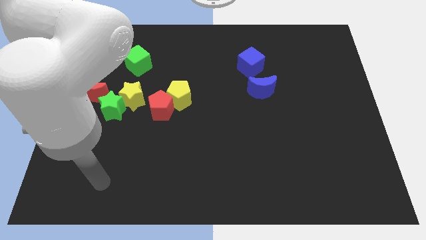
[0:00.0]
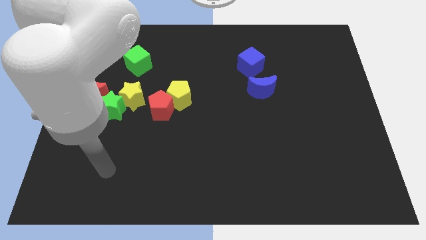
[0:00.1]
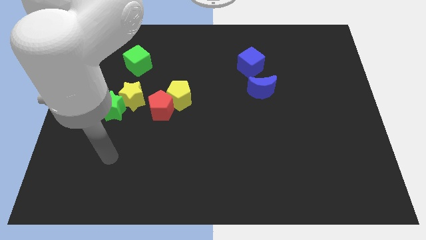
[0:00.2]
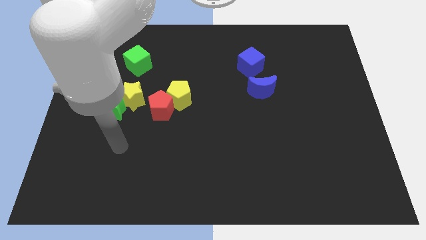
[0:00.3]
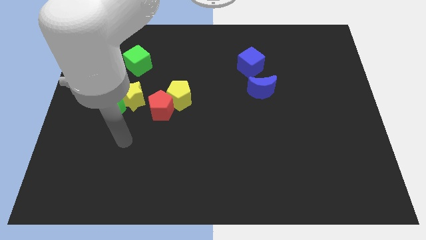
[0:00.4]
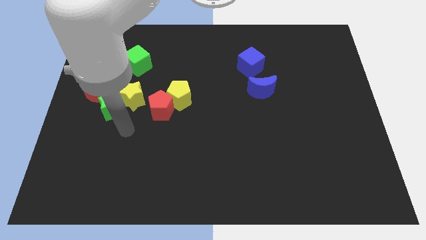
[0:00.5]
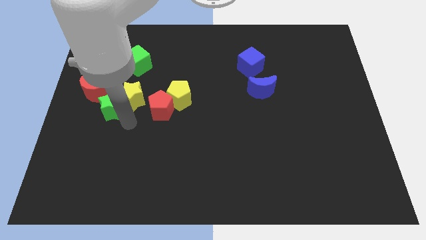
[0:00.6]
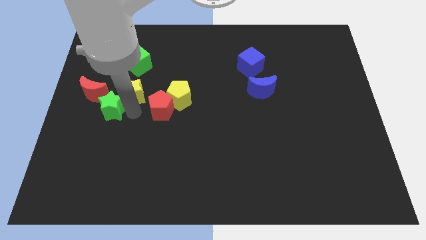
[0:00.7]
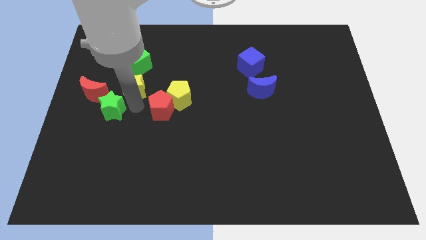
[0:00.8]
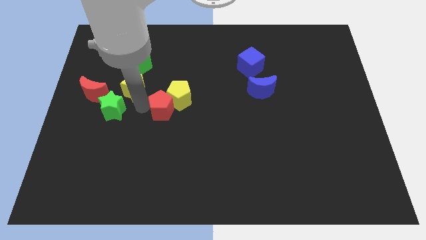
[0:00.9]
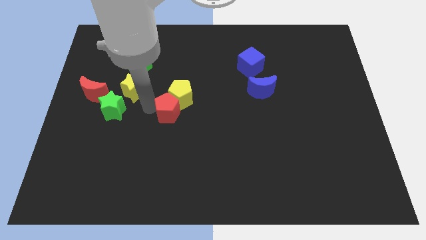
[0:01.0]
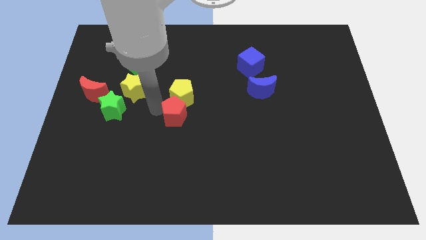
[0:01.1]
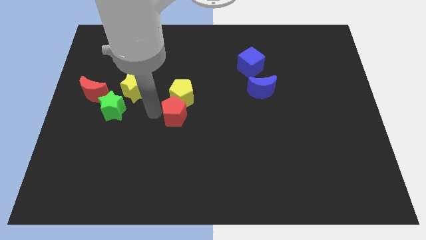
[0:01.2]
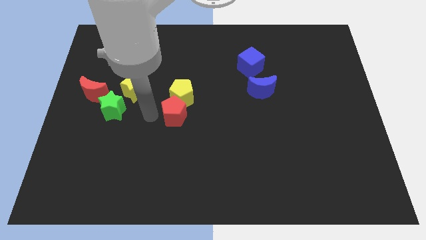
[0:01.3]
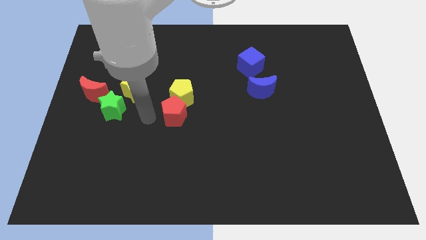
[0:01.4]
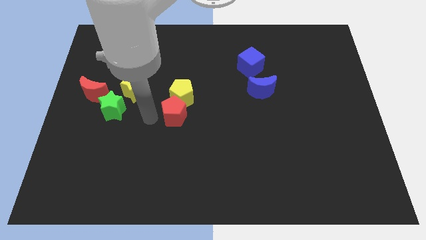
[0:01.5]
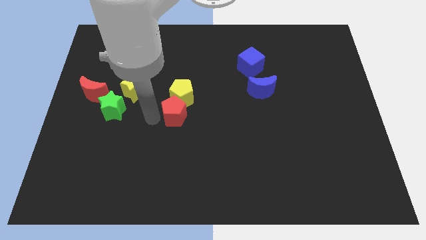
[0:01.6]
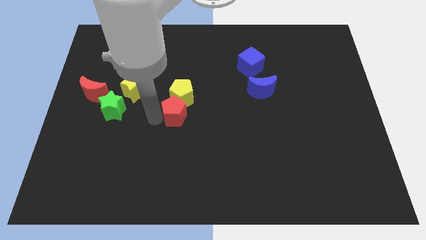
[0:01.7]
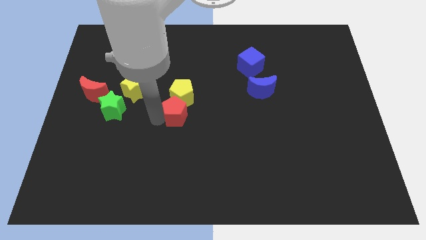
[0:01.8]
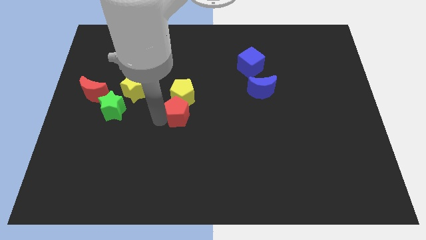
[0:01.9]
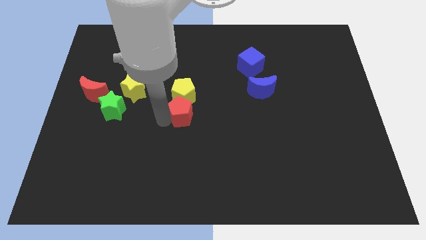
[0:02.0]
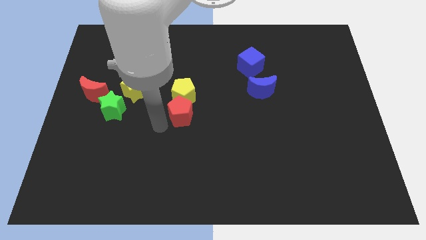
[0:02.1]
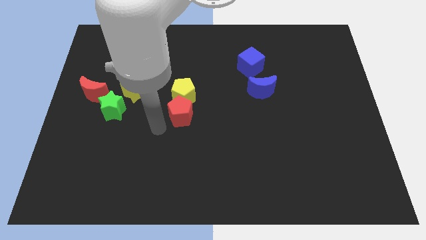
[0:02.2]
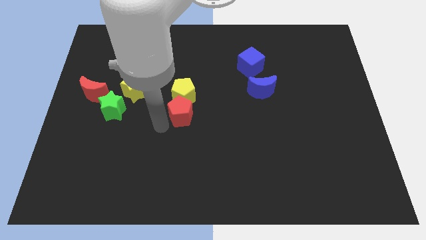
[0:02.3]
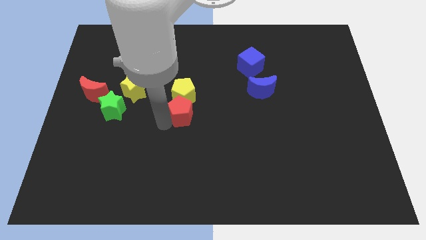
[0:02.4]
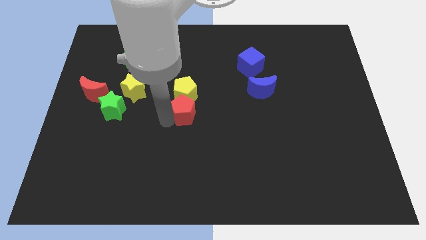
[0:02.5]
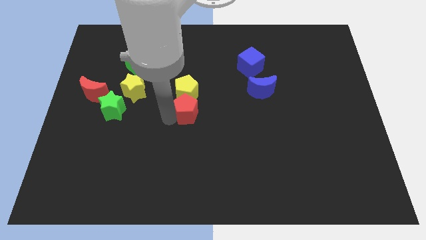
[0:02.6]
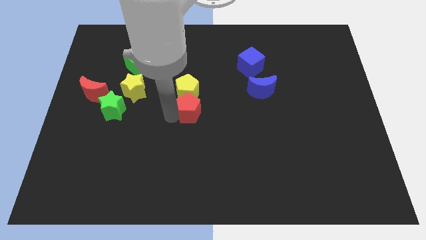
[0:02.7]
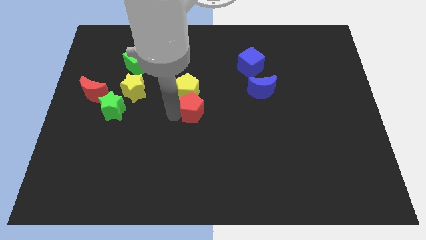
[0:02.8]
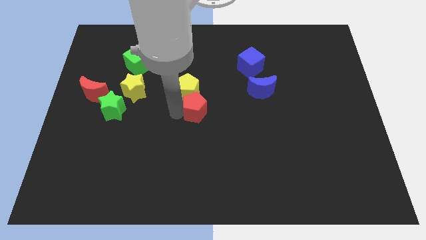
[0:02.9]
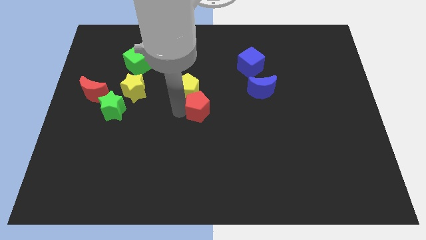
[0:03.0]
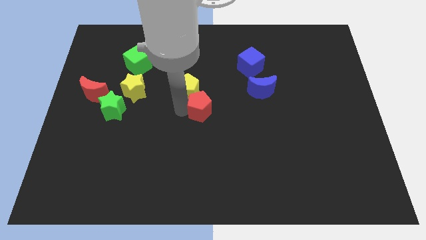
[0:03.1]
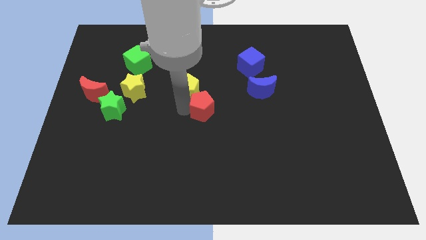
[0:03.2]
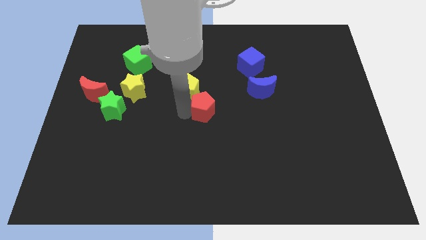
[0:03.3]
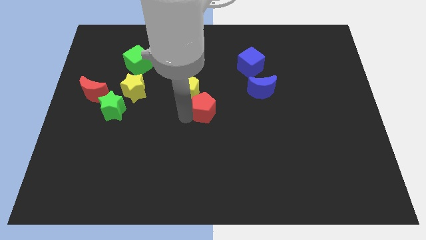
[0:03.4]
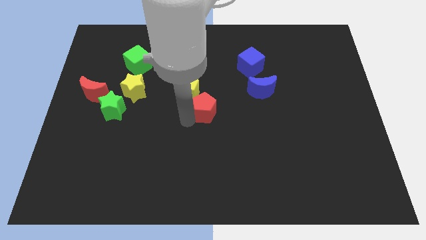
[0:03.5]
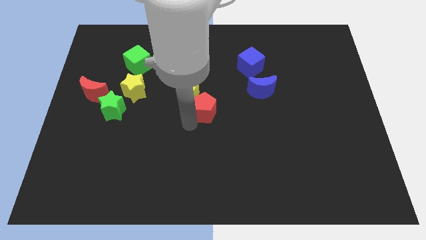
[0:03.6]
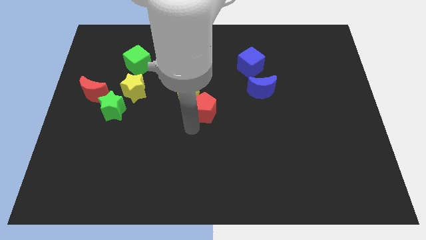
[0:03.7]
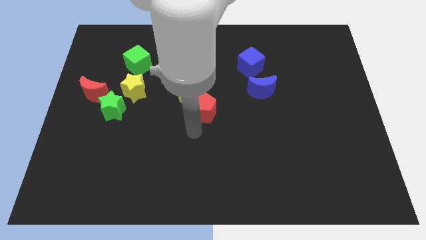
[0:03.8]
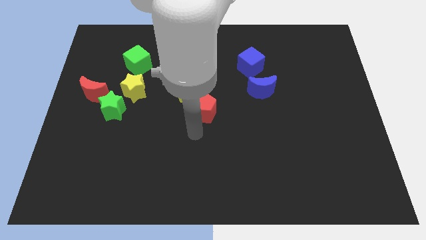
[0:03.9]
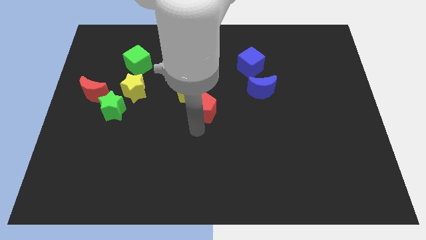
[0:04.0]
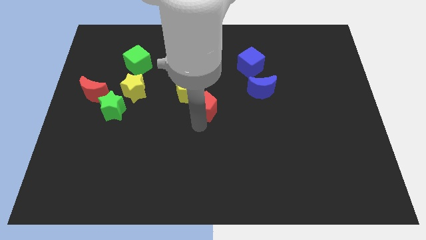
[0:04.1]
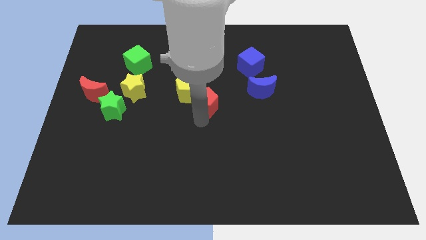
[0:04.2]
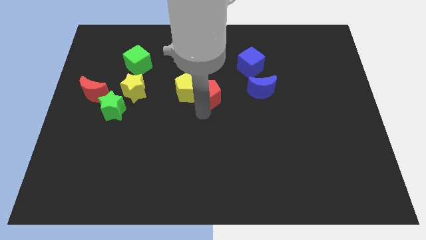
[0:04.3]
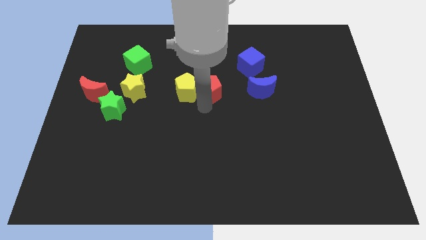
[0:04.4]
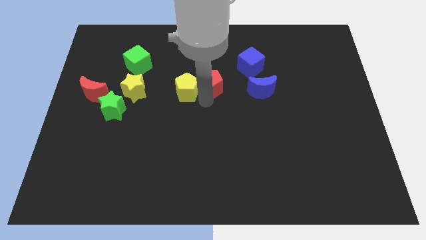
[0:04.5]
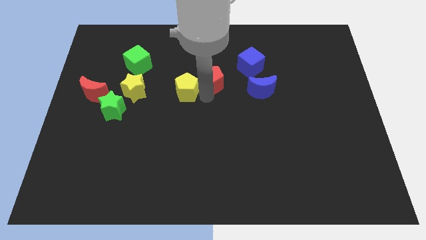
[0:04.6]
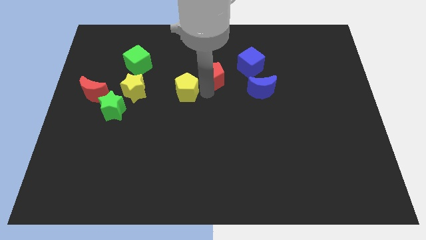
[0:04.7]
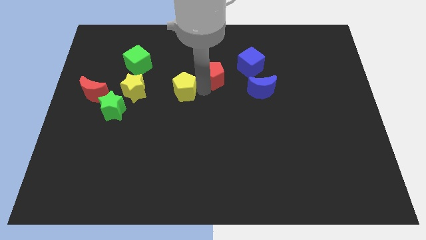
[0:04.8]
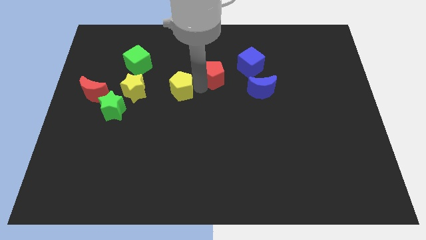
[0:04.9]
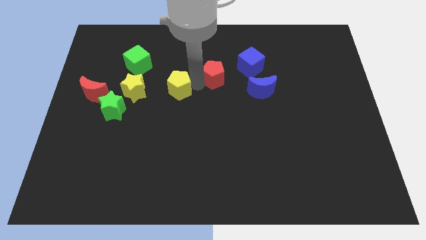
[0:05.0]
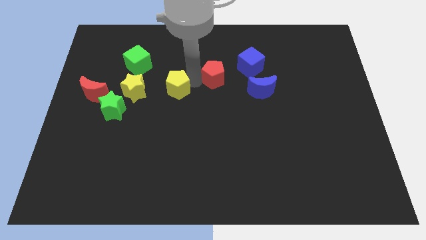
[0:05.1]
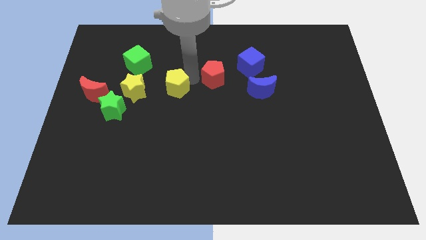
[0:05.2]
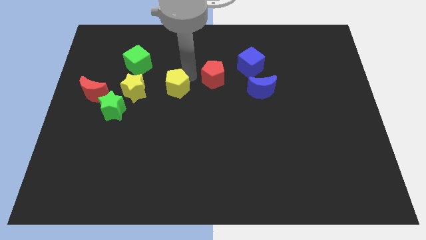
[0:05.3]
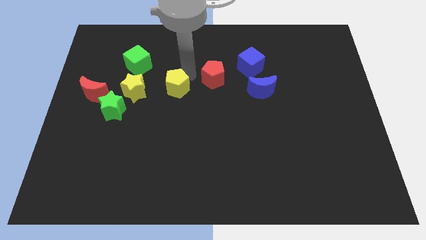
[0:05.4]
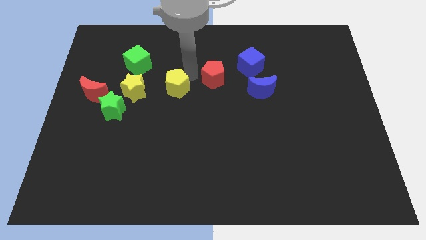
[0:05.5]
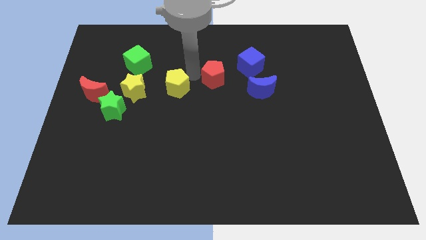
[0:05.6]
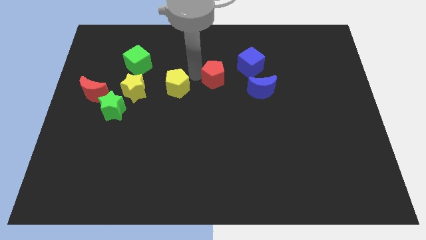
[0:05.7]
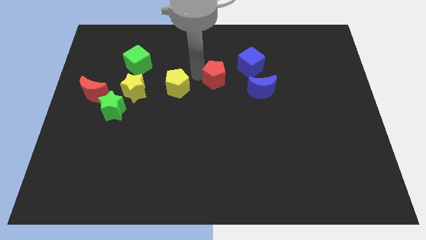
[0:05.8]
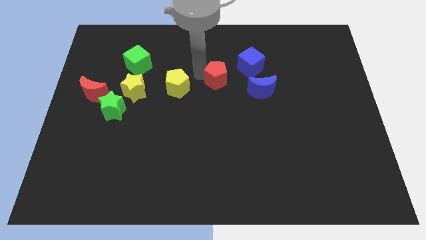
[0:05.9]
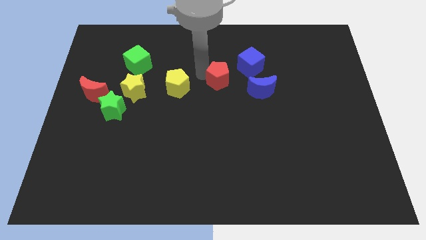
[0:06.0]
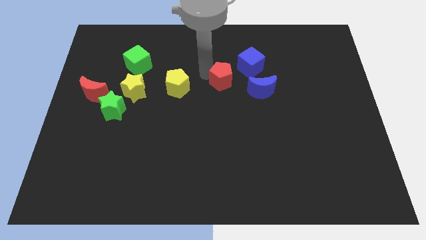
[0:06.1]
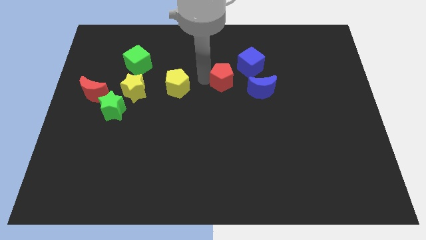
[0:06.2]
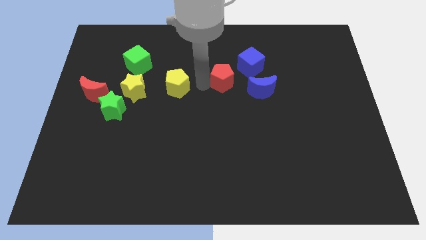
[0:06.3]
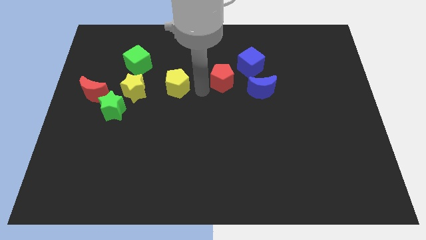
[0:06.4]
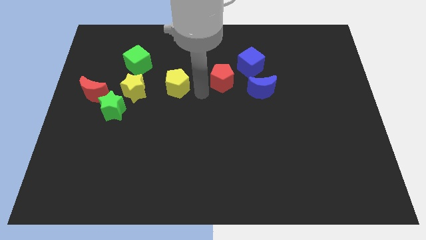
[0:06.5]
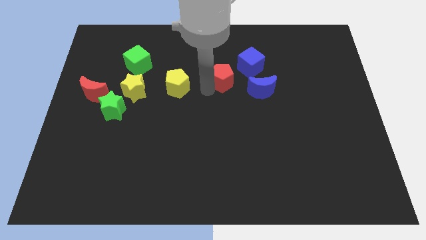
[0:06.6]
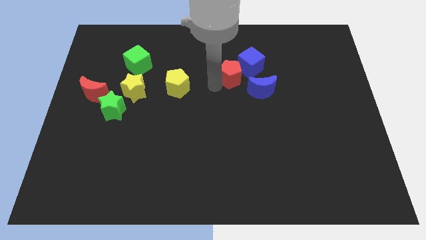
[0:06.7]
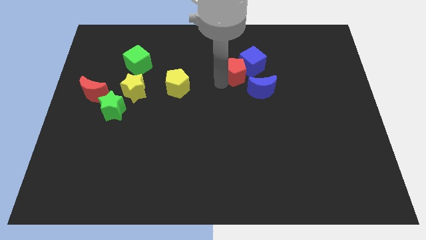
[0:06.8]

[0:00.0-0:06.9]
slide the red pentagon to the blue cube
